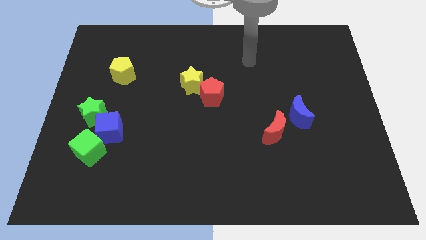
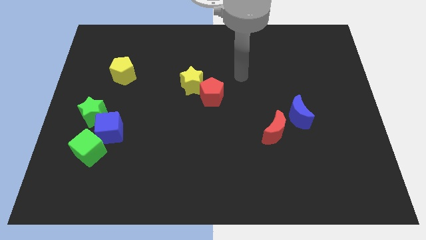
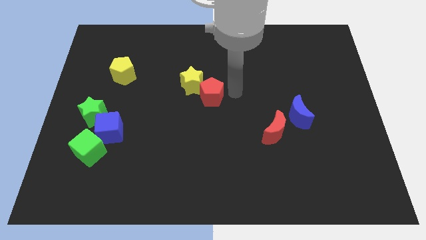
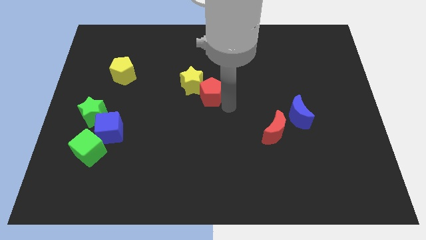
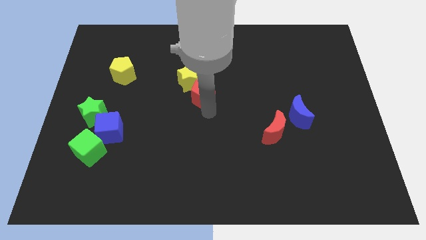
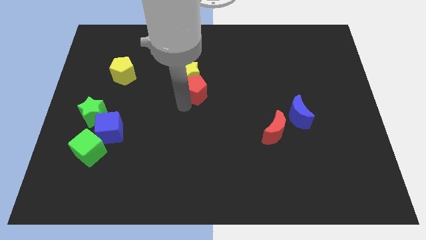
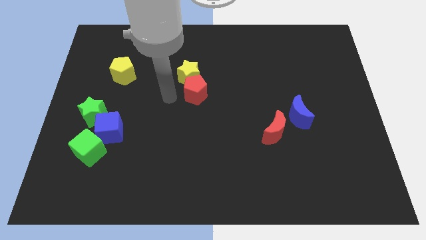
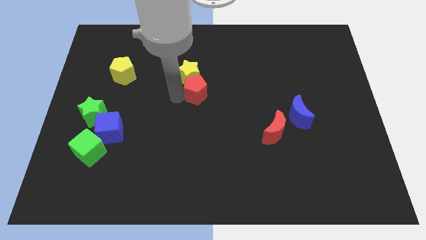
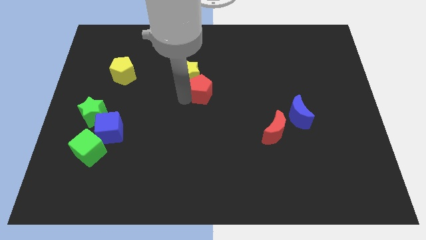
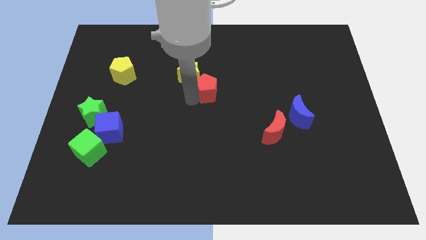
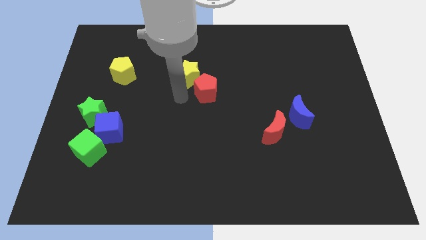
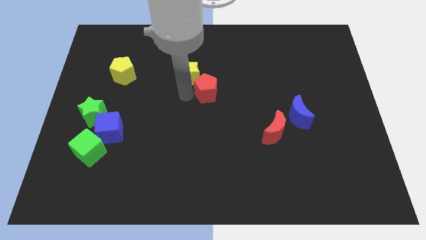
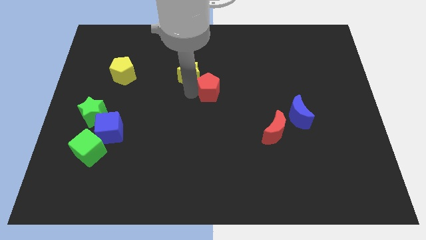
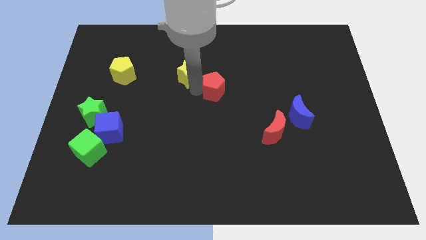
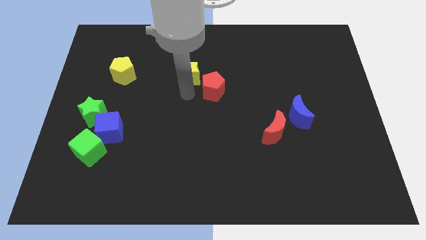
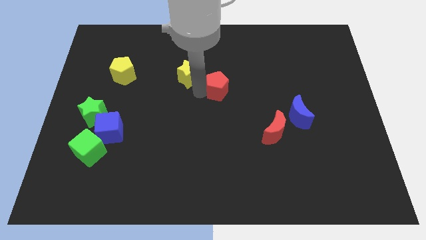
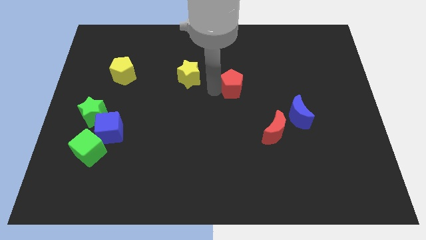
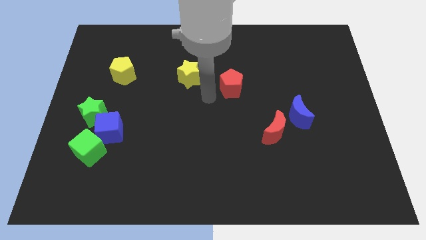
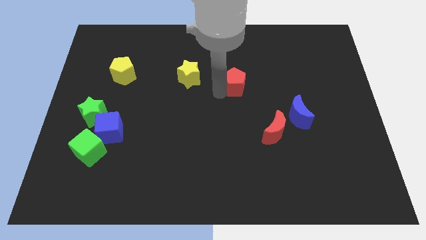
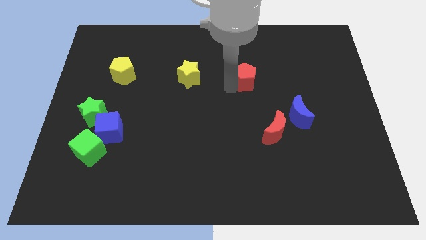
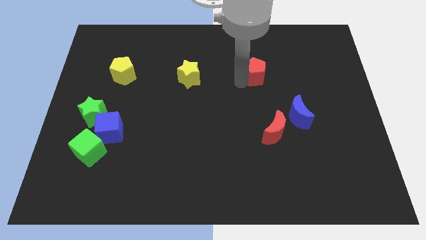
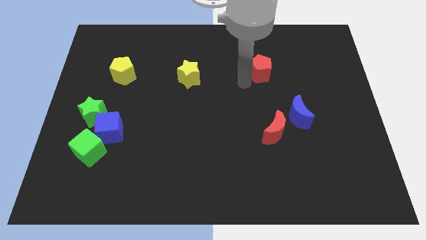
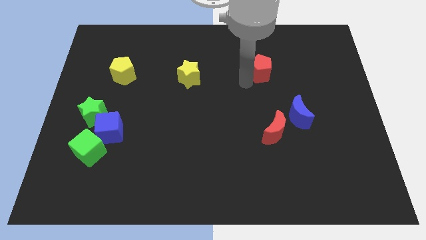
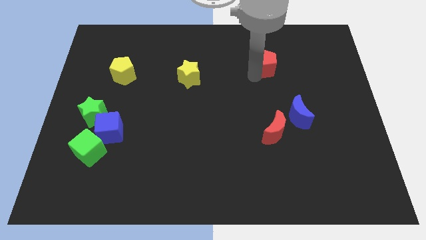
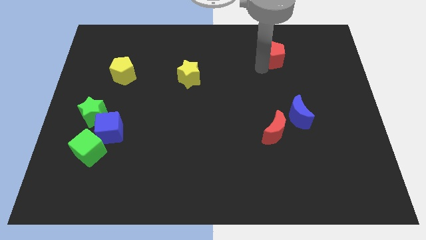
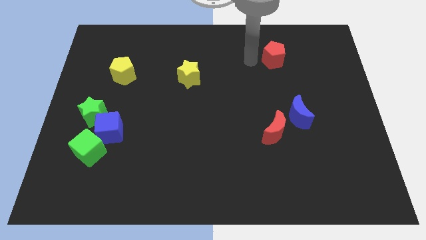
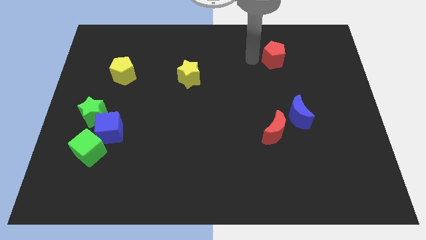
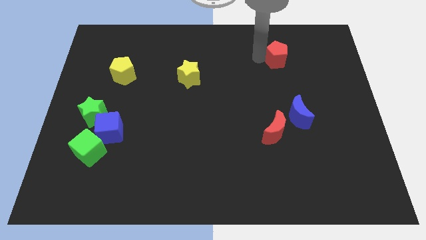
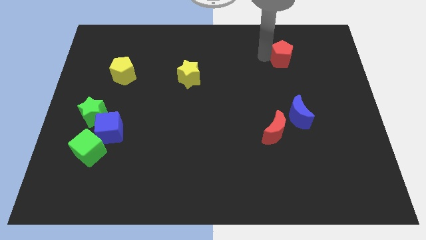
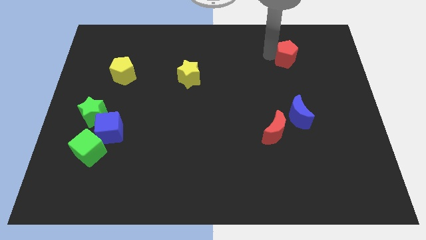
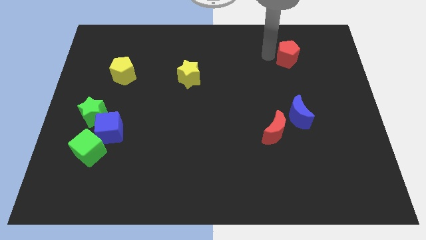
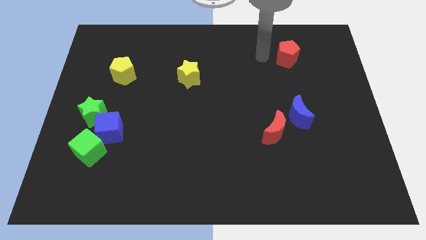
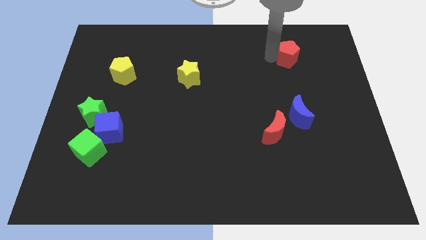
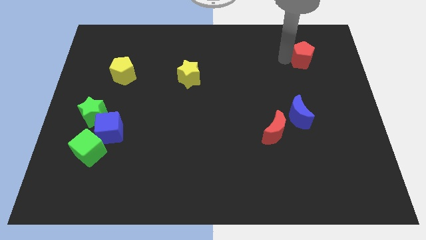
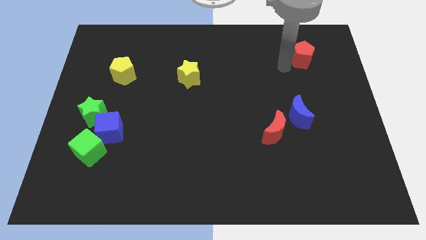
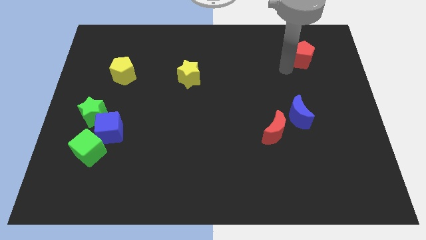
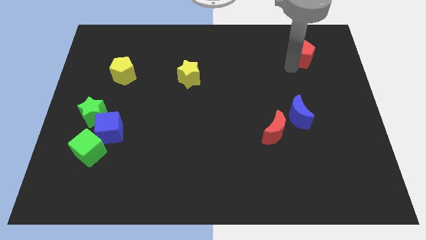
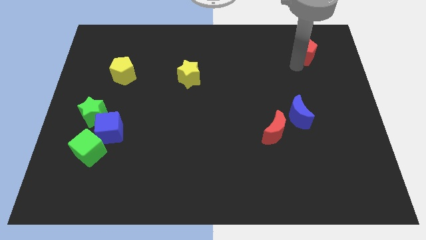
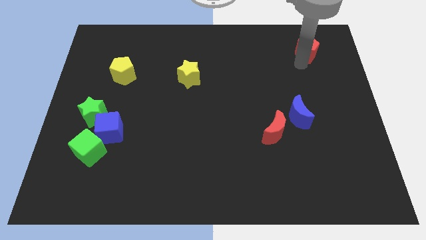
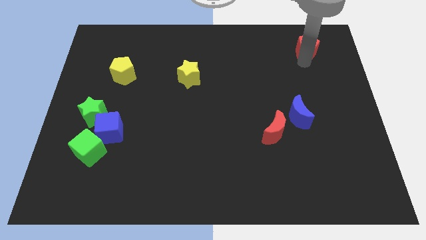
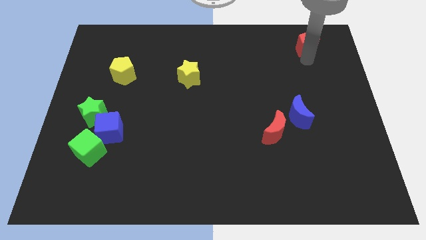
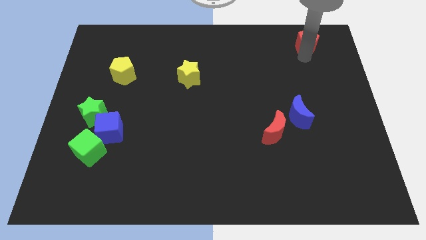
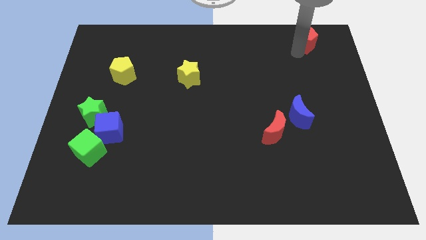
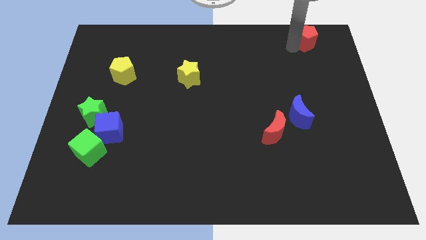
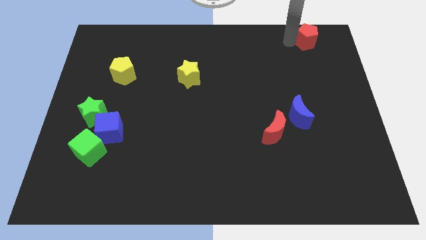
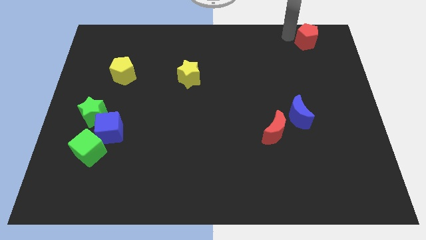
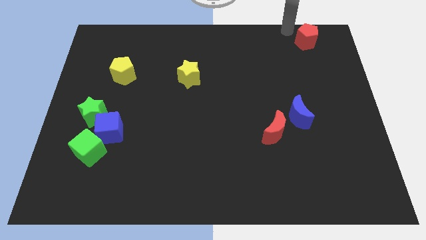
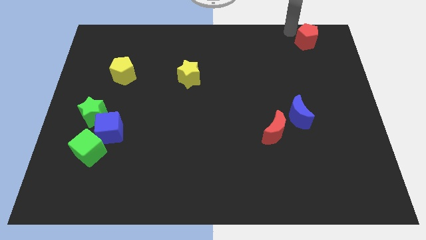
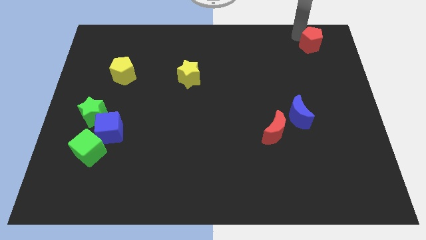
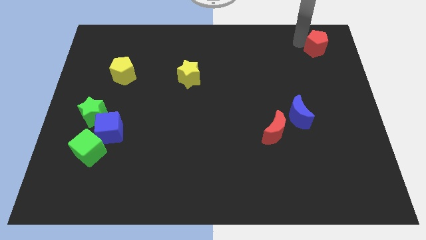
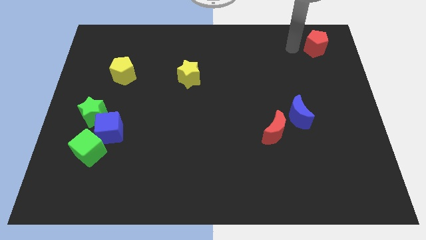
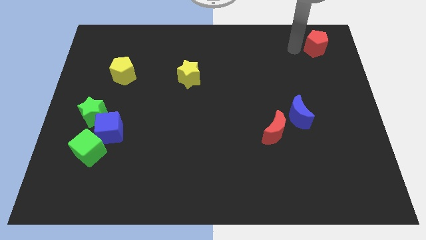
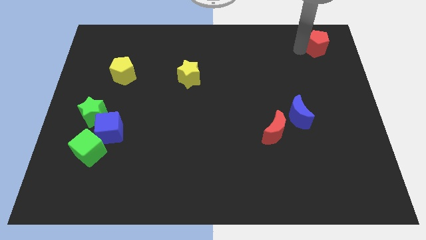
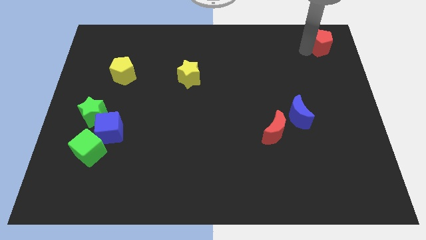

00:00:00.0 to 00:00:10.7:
push the red pentagon to the top right of the board

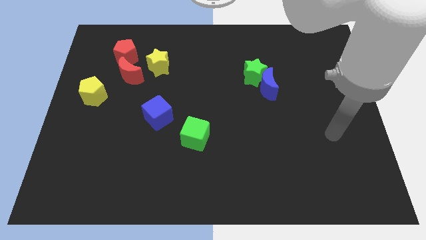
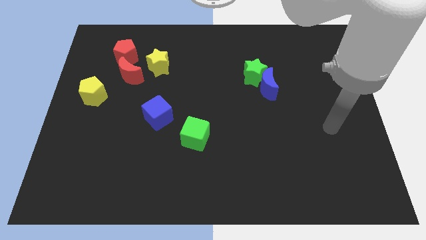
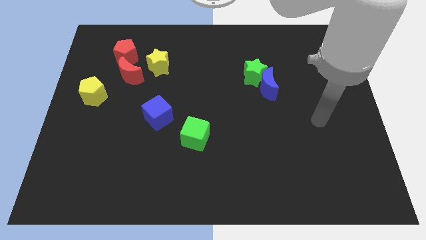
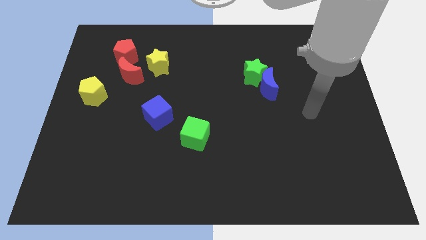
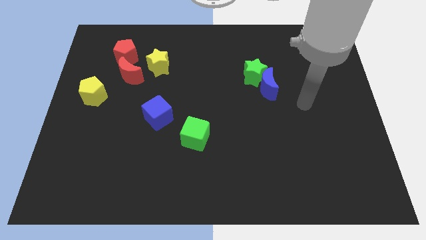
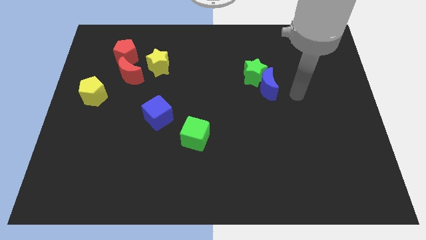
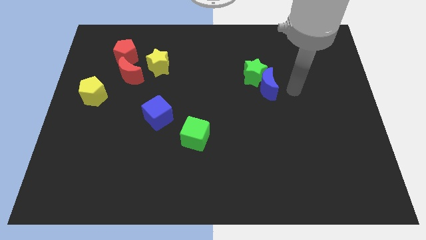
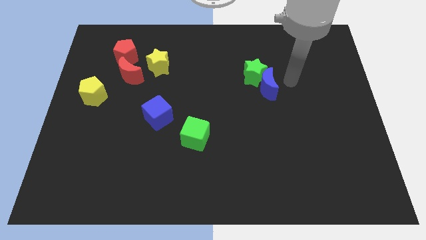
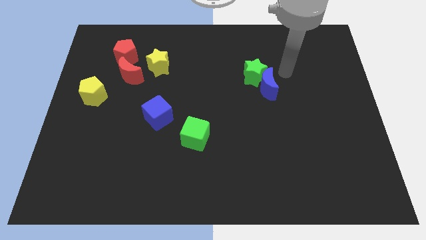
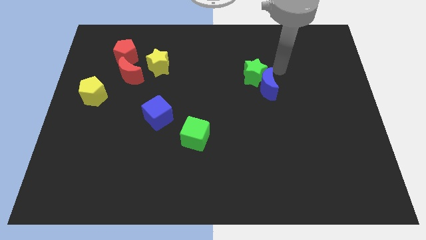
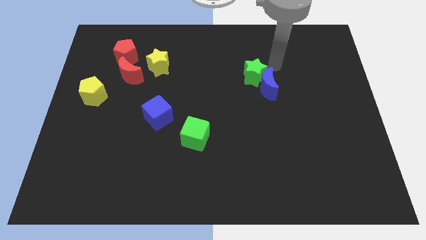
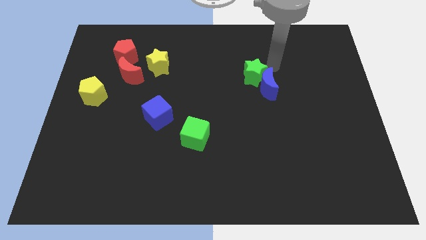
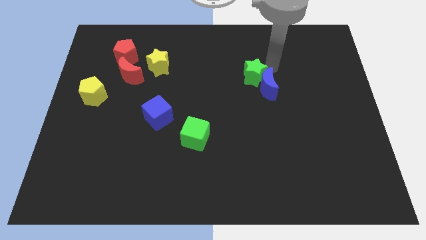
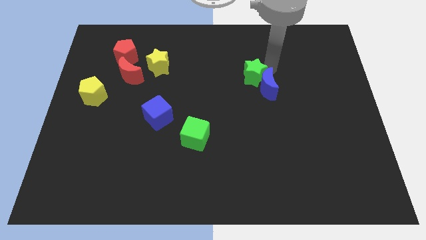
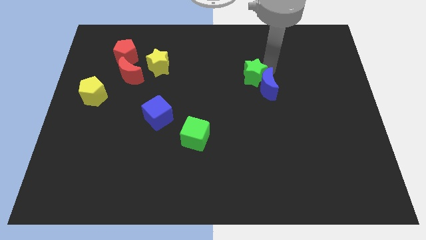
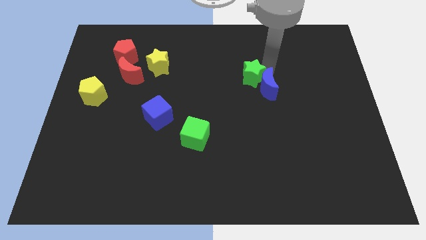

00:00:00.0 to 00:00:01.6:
move the green star to the middle
